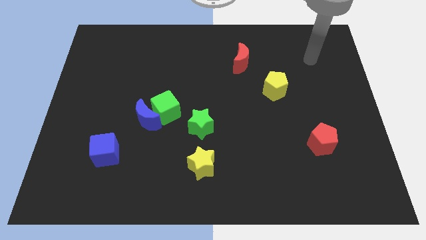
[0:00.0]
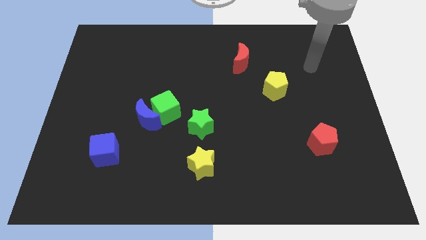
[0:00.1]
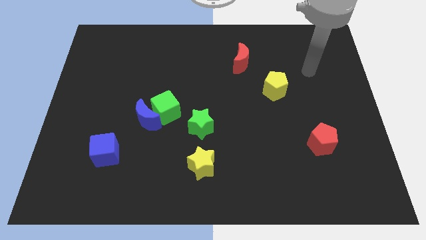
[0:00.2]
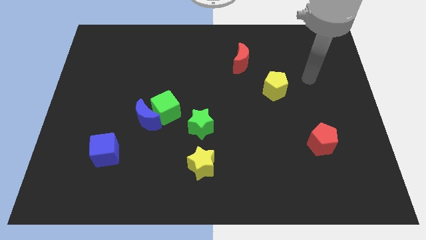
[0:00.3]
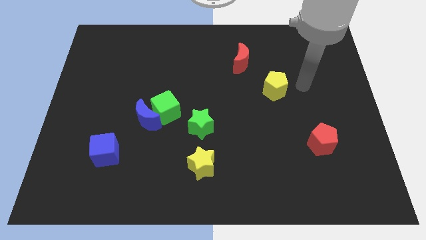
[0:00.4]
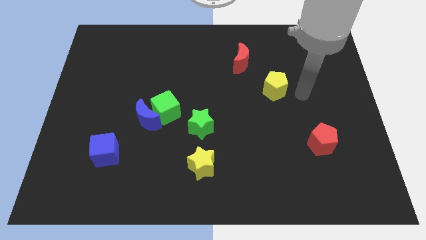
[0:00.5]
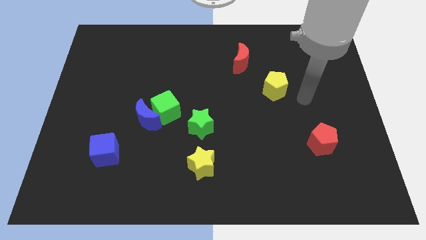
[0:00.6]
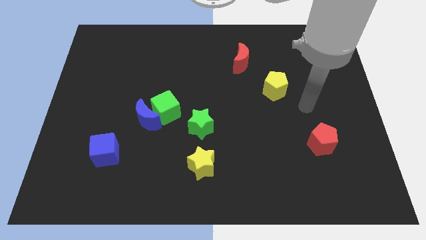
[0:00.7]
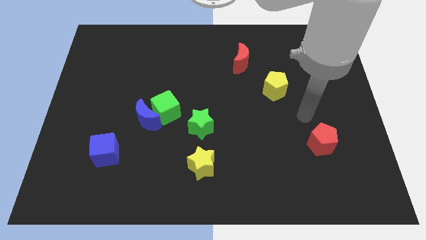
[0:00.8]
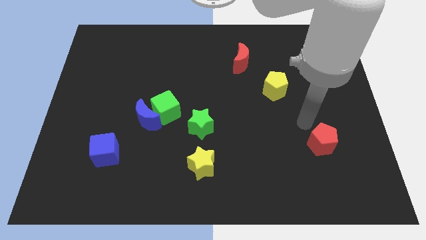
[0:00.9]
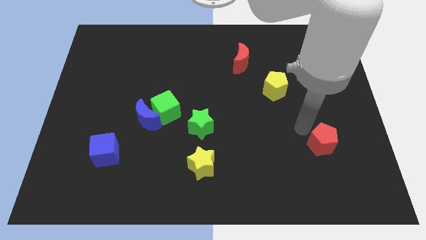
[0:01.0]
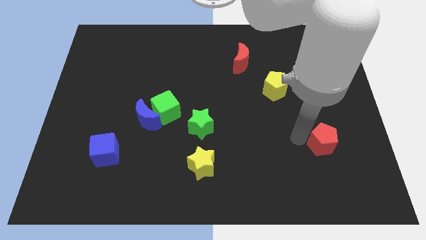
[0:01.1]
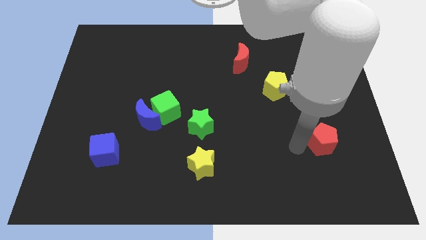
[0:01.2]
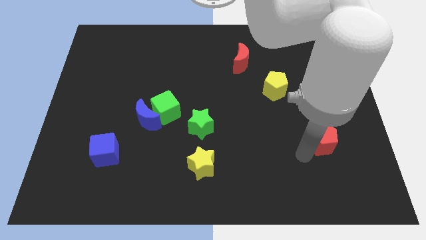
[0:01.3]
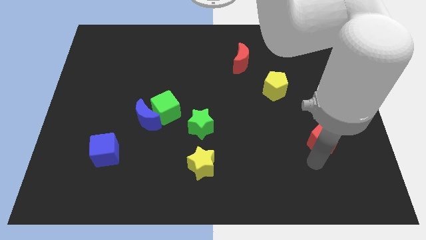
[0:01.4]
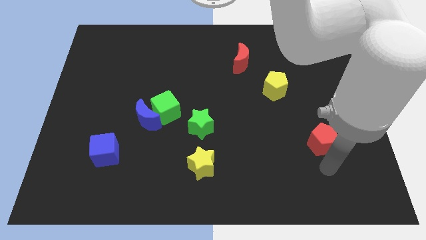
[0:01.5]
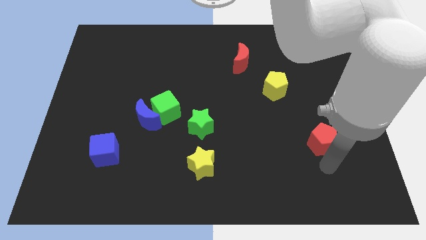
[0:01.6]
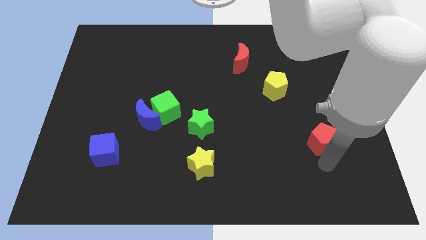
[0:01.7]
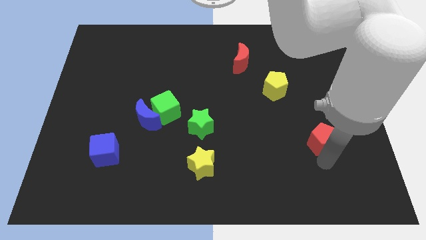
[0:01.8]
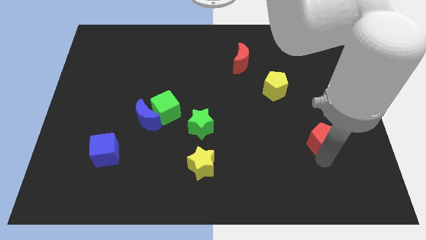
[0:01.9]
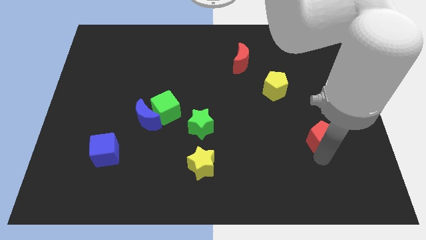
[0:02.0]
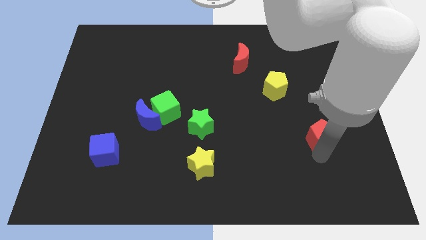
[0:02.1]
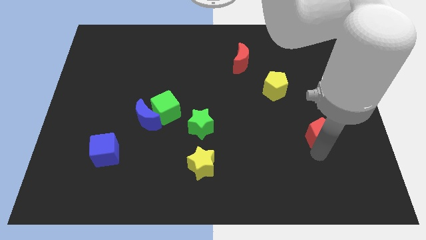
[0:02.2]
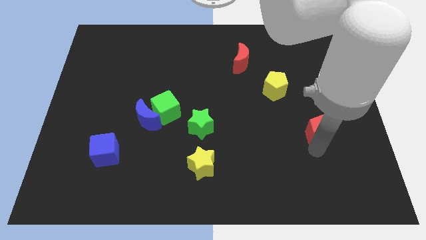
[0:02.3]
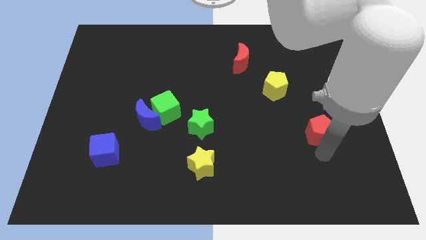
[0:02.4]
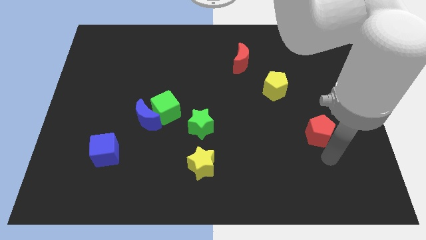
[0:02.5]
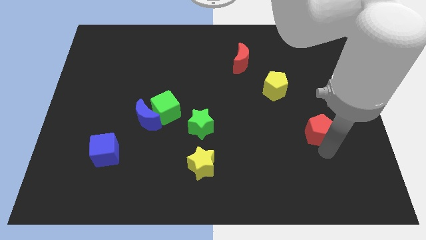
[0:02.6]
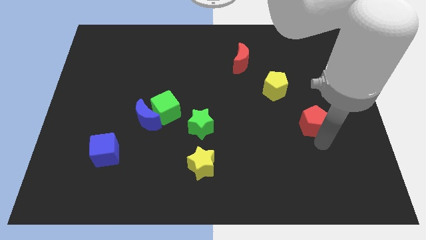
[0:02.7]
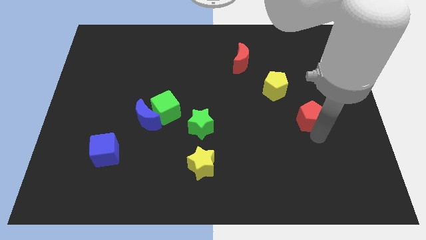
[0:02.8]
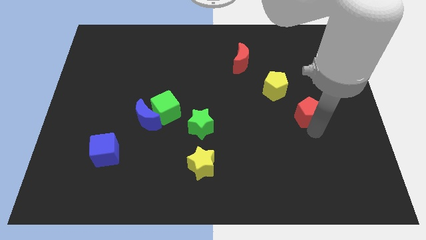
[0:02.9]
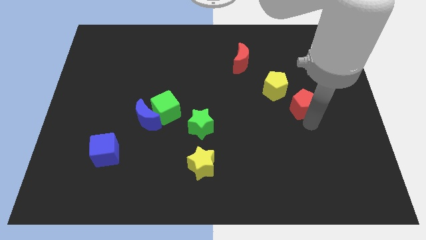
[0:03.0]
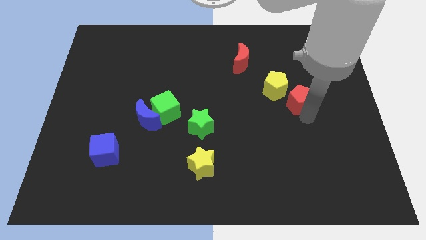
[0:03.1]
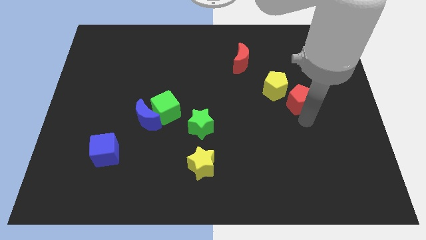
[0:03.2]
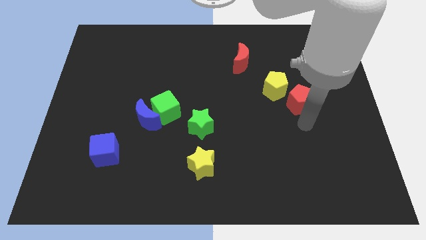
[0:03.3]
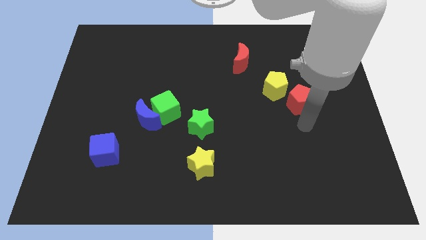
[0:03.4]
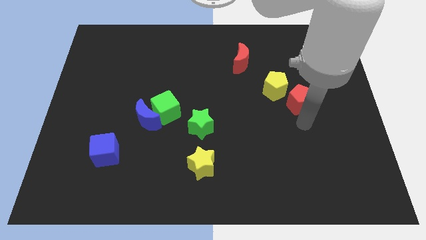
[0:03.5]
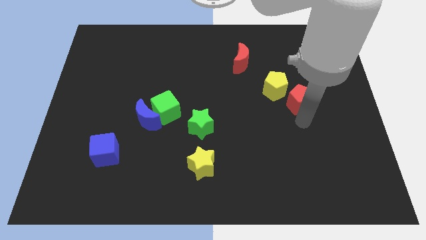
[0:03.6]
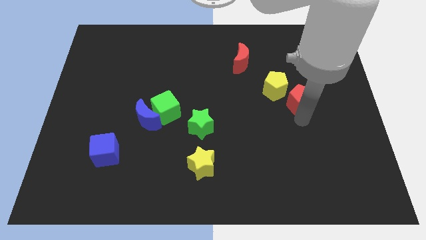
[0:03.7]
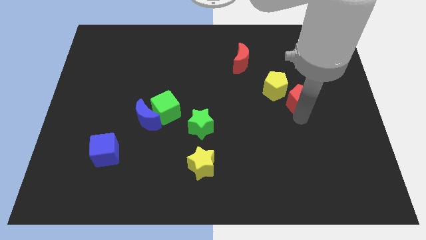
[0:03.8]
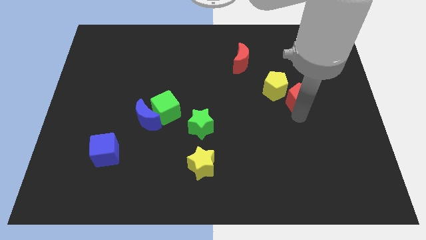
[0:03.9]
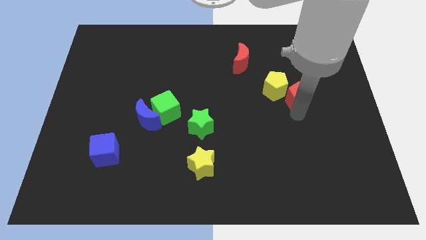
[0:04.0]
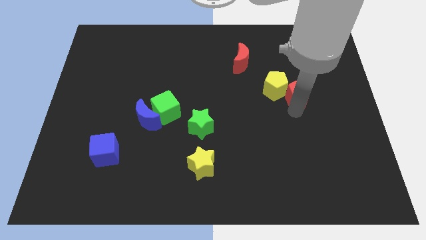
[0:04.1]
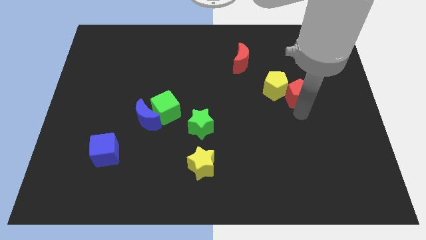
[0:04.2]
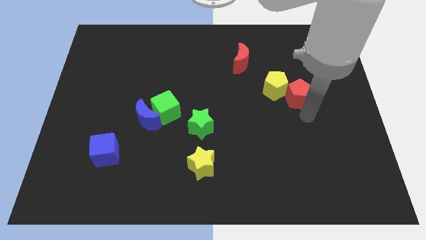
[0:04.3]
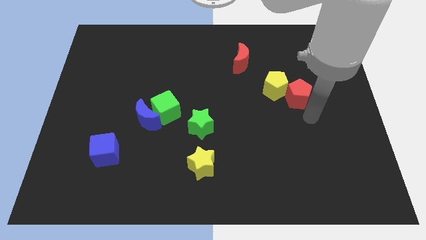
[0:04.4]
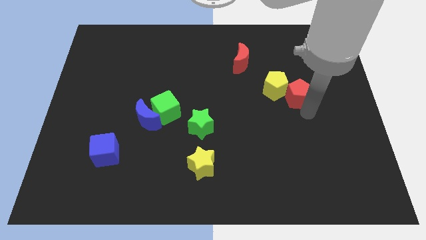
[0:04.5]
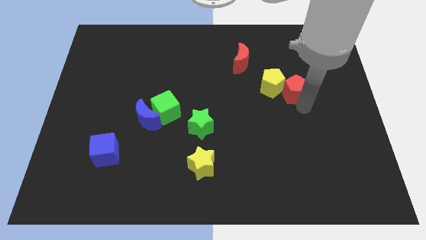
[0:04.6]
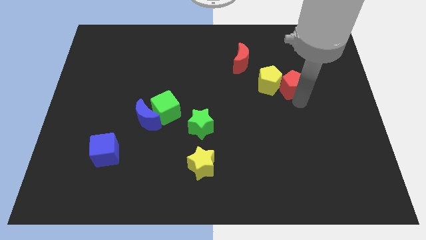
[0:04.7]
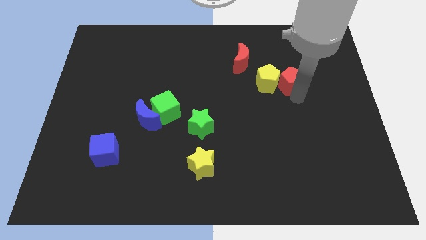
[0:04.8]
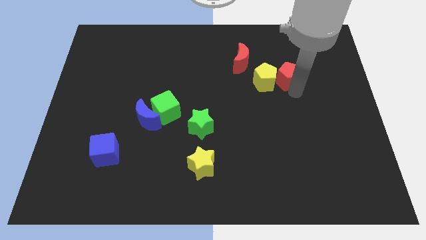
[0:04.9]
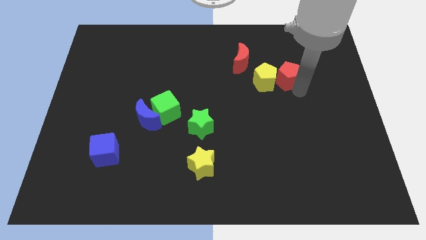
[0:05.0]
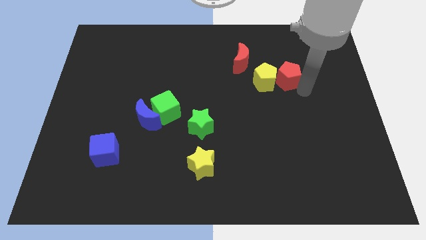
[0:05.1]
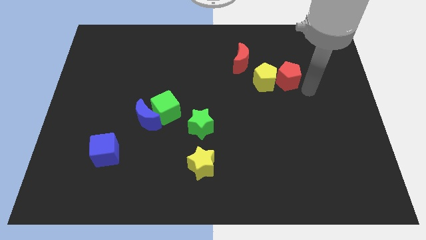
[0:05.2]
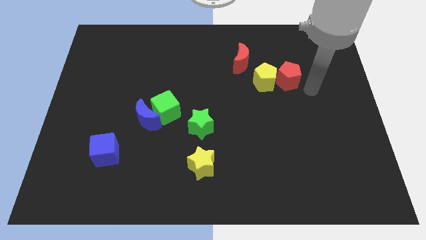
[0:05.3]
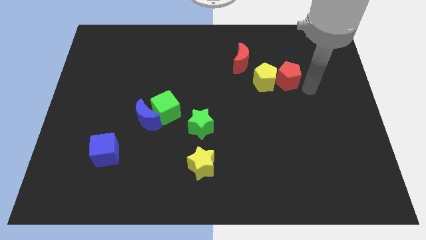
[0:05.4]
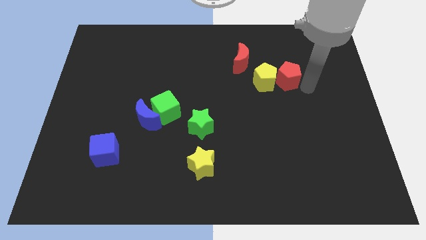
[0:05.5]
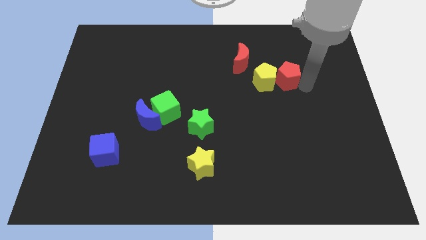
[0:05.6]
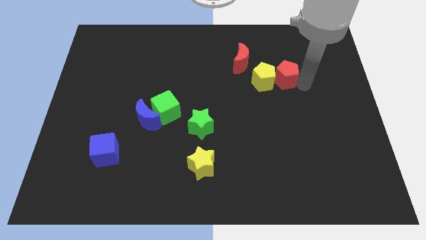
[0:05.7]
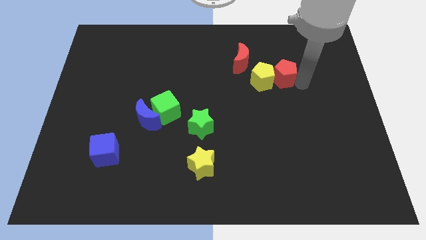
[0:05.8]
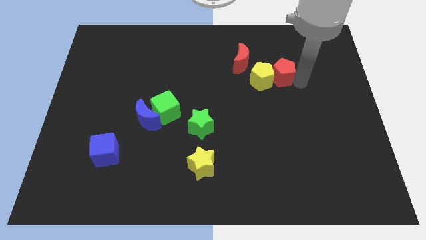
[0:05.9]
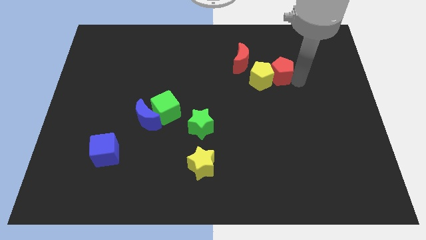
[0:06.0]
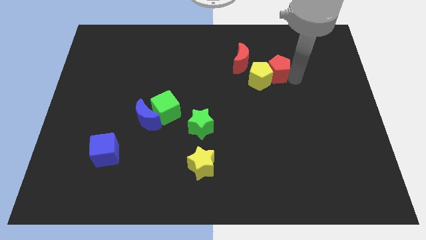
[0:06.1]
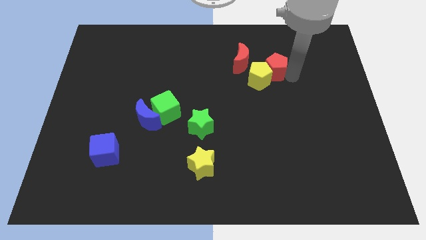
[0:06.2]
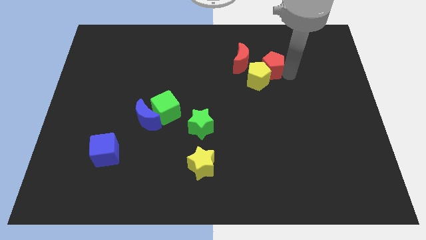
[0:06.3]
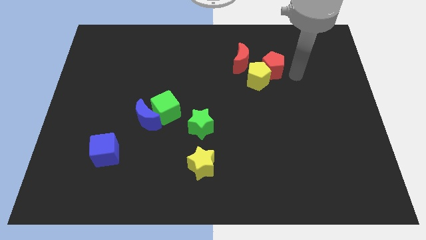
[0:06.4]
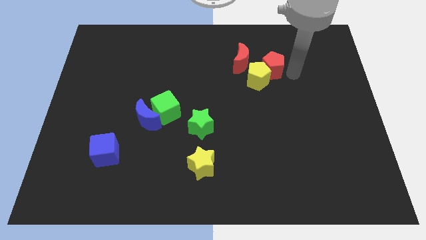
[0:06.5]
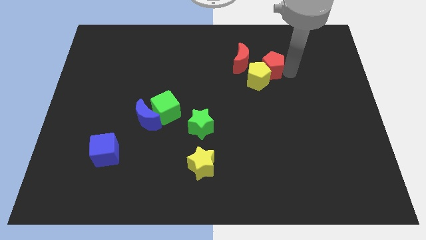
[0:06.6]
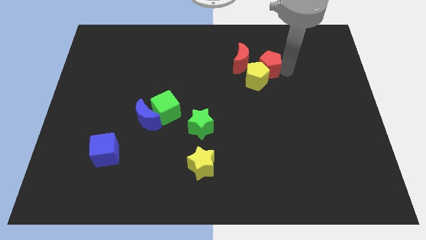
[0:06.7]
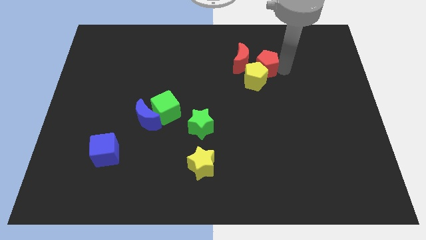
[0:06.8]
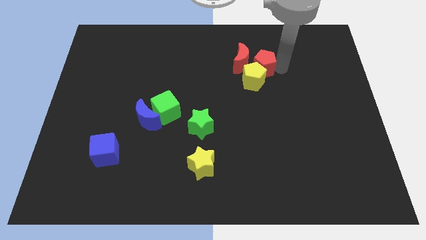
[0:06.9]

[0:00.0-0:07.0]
move the red pentagon towards the red moon

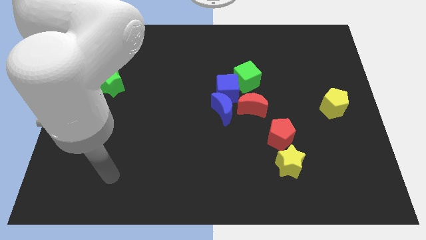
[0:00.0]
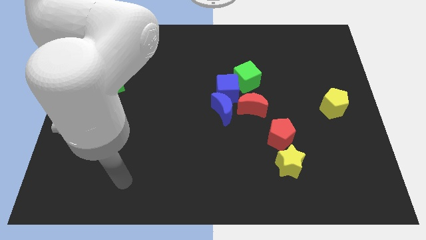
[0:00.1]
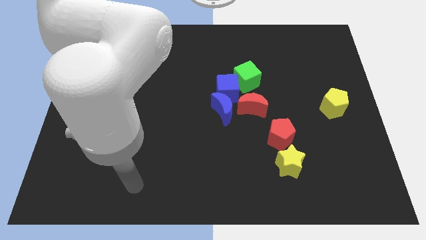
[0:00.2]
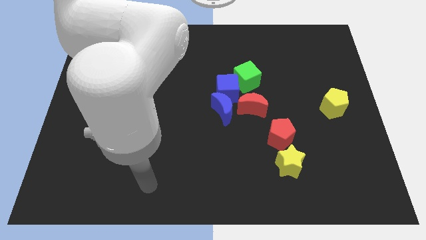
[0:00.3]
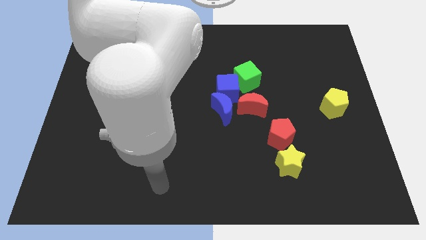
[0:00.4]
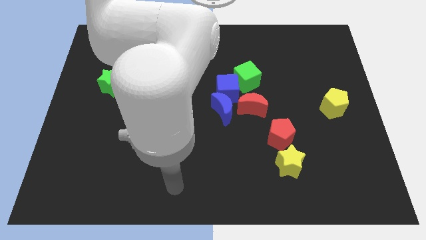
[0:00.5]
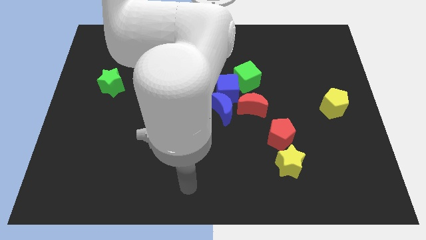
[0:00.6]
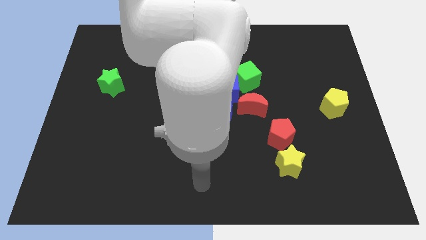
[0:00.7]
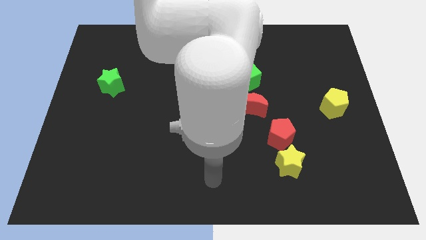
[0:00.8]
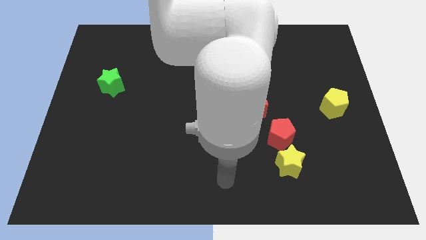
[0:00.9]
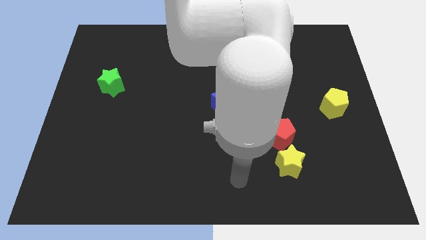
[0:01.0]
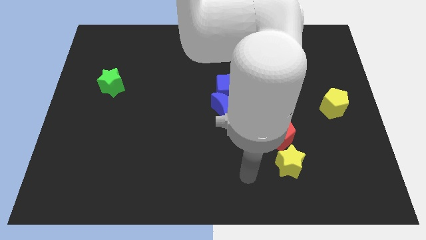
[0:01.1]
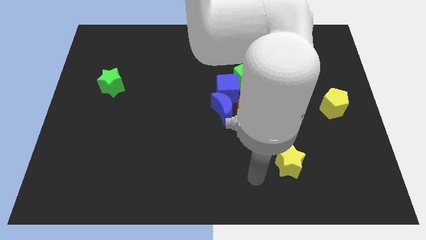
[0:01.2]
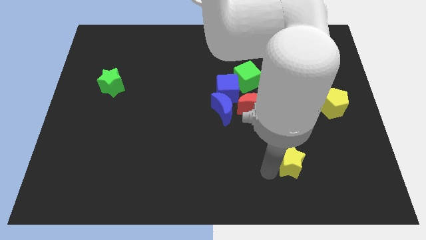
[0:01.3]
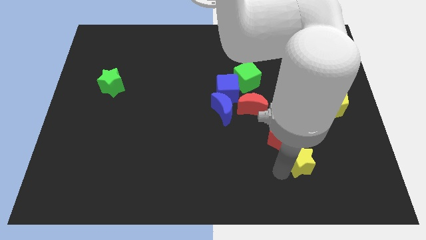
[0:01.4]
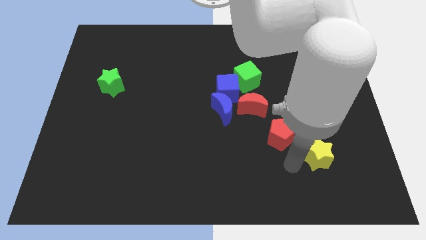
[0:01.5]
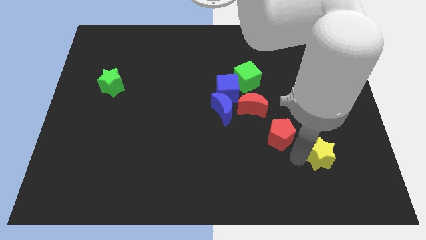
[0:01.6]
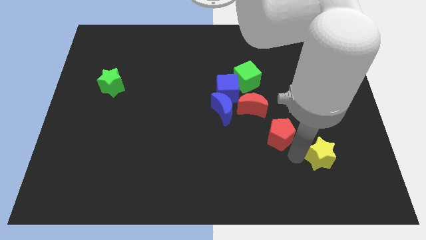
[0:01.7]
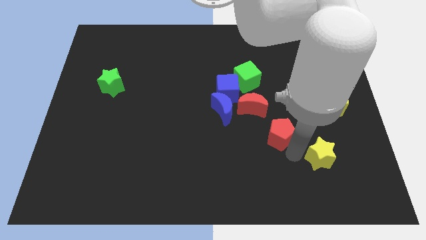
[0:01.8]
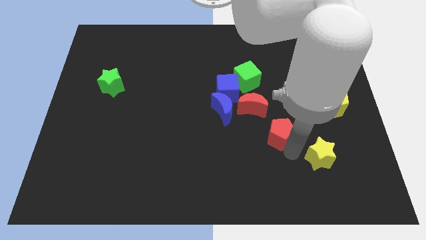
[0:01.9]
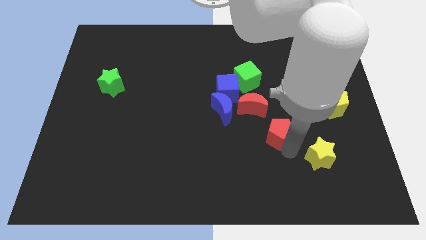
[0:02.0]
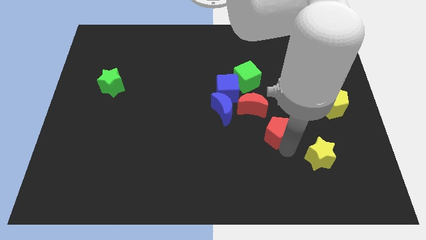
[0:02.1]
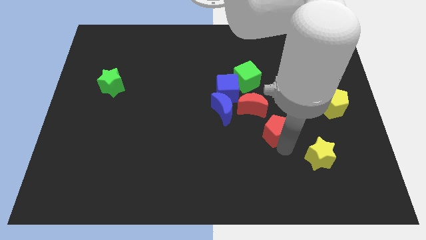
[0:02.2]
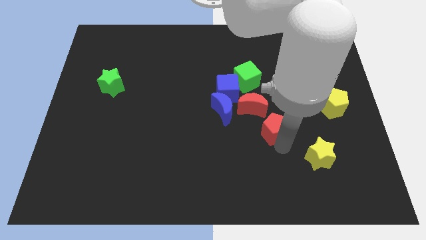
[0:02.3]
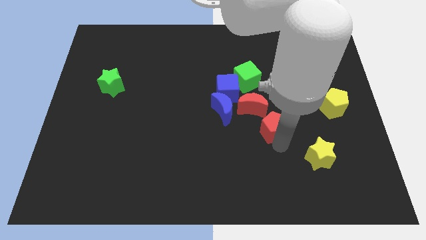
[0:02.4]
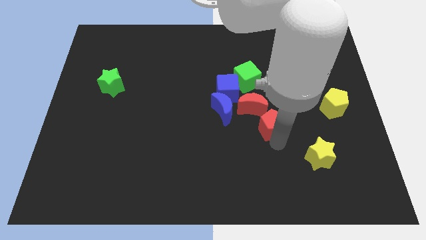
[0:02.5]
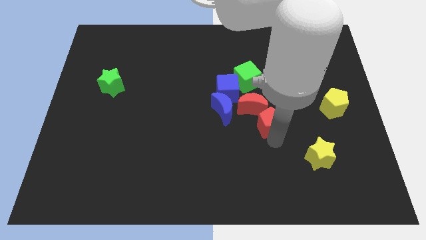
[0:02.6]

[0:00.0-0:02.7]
move the red pentagon next to the red moon
